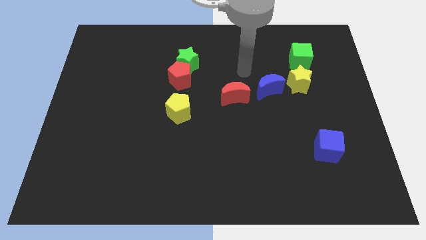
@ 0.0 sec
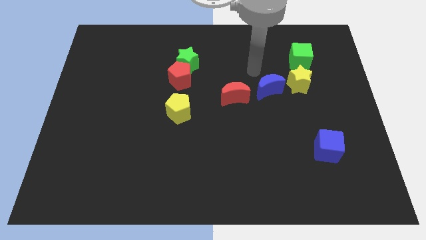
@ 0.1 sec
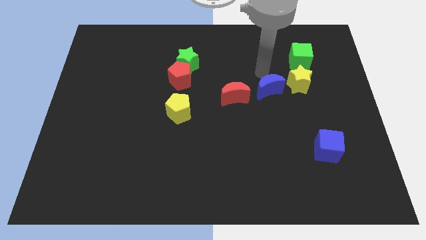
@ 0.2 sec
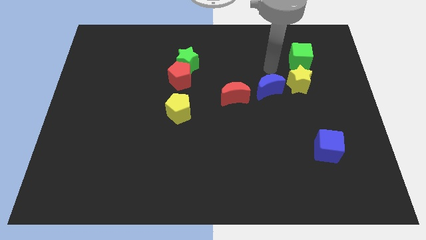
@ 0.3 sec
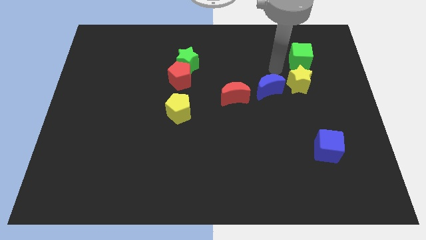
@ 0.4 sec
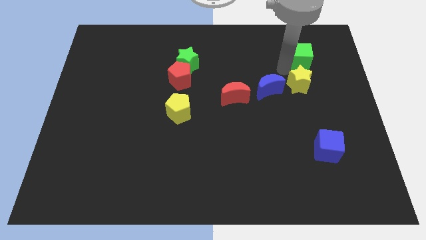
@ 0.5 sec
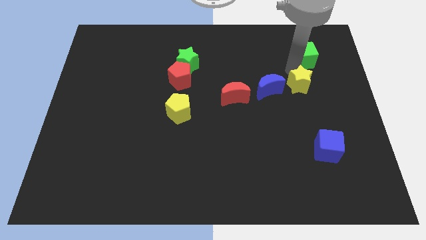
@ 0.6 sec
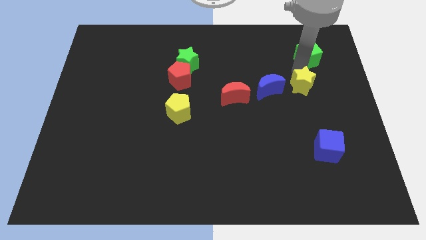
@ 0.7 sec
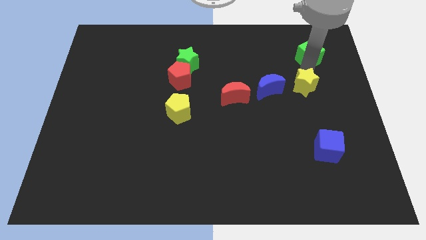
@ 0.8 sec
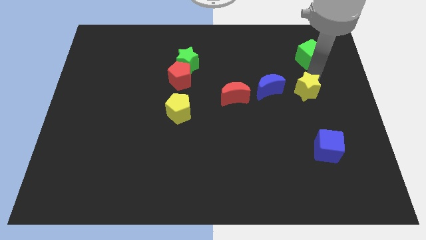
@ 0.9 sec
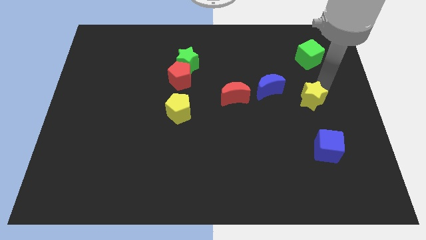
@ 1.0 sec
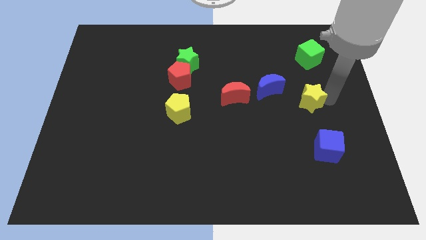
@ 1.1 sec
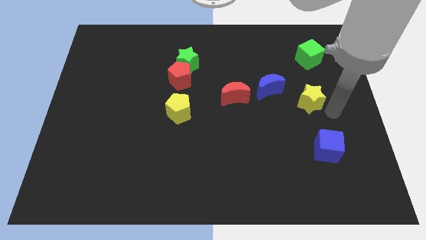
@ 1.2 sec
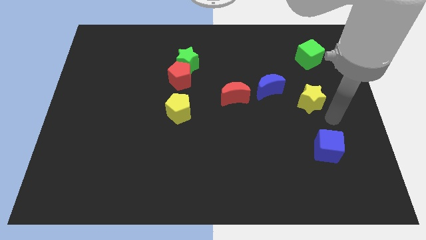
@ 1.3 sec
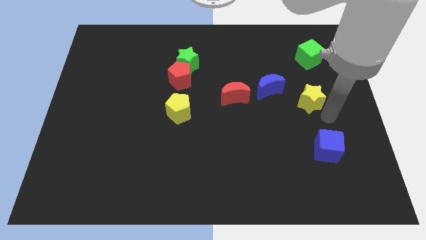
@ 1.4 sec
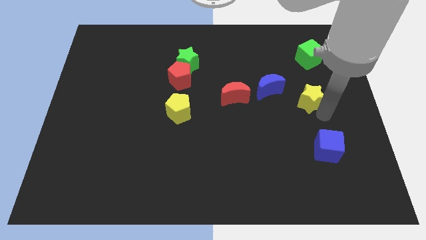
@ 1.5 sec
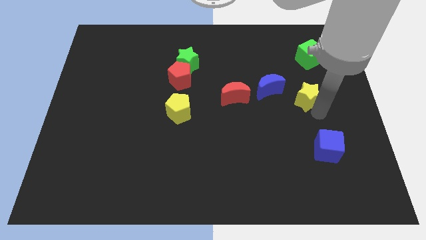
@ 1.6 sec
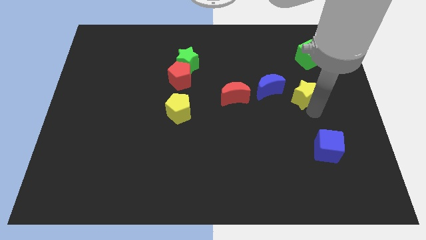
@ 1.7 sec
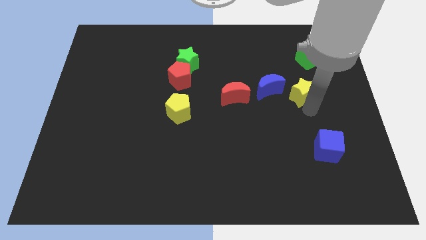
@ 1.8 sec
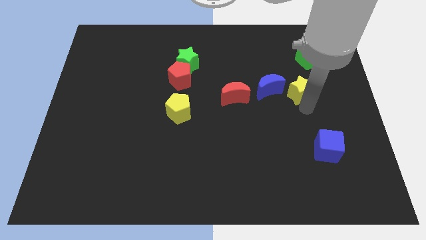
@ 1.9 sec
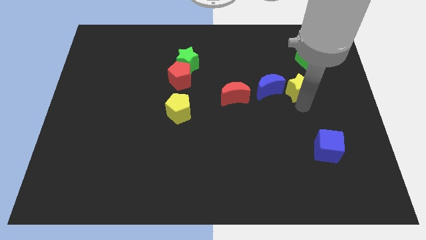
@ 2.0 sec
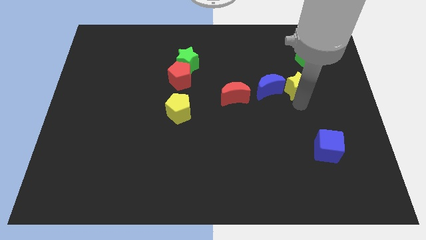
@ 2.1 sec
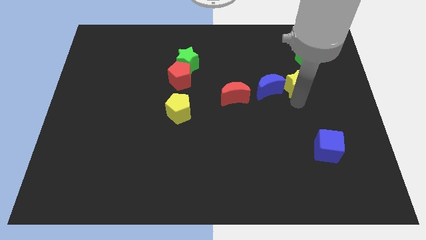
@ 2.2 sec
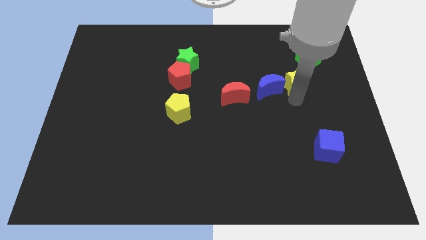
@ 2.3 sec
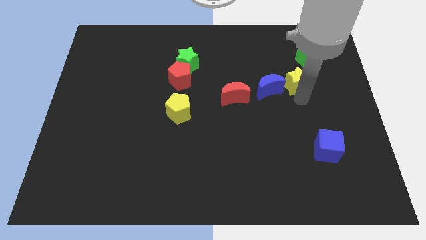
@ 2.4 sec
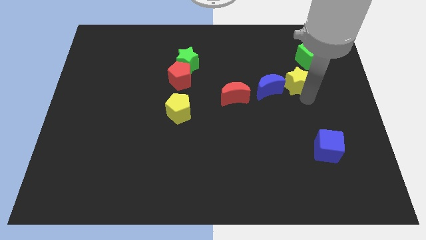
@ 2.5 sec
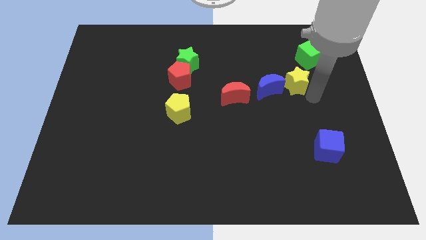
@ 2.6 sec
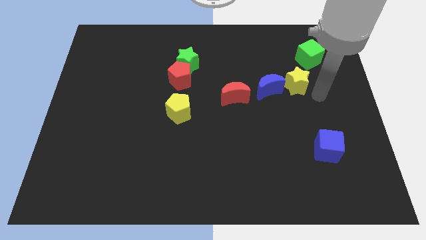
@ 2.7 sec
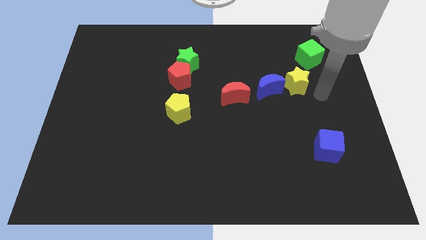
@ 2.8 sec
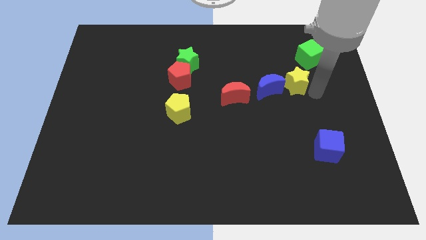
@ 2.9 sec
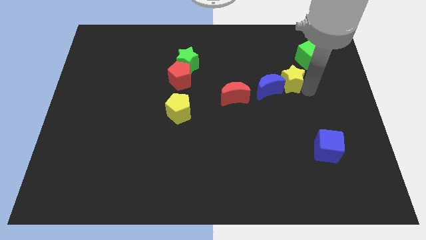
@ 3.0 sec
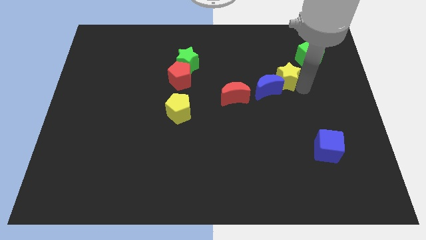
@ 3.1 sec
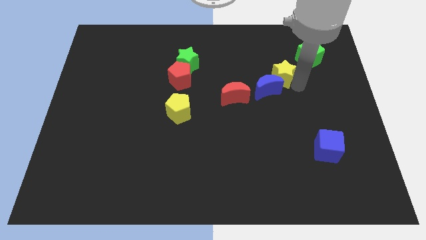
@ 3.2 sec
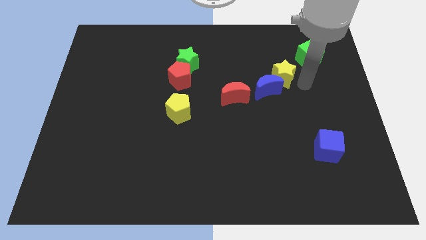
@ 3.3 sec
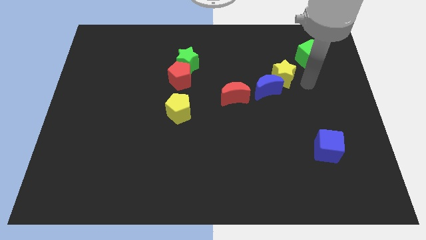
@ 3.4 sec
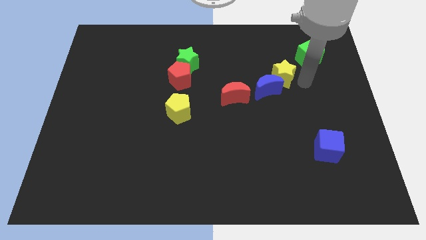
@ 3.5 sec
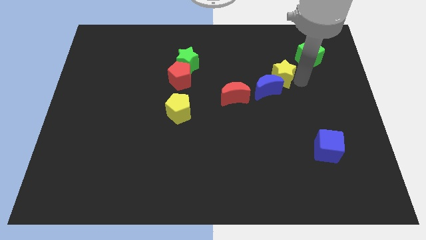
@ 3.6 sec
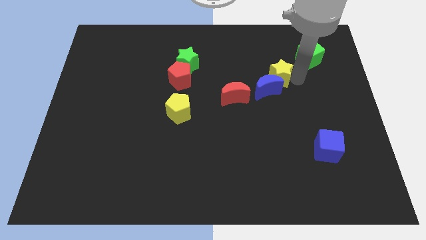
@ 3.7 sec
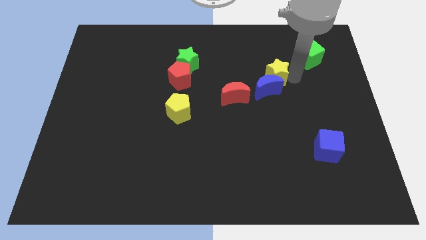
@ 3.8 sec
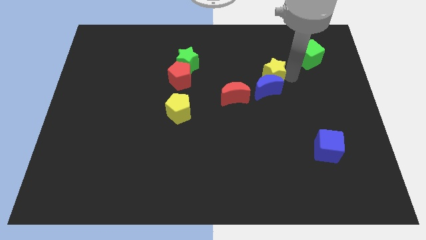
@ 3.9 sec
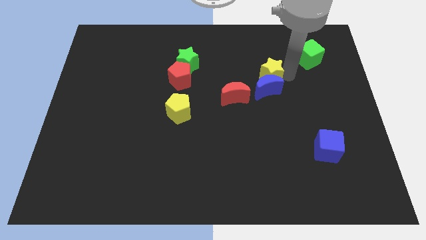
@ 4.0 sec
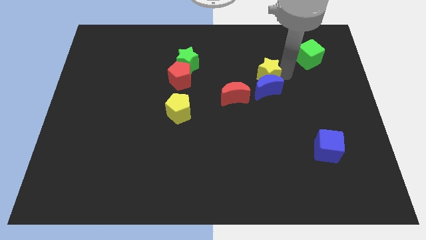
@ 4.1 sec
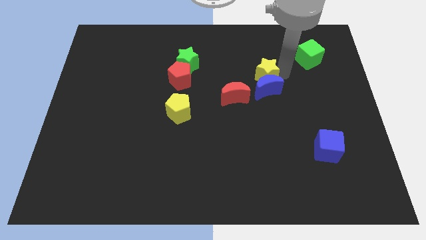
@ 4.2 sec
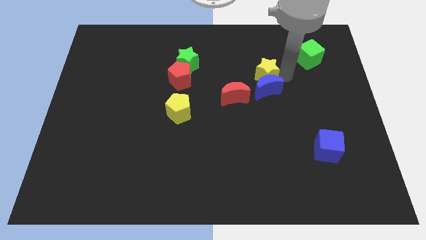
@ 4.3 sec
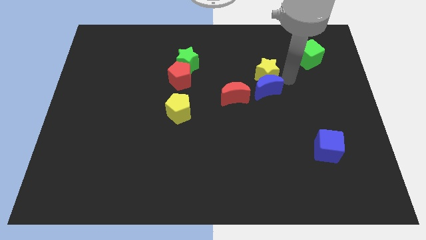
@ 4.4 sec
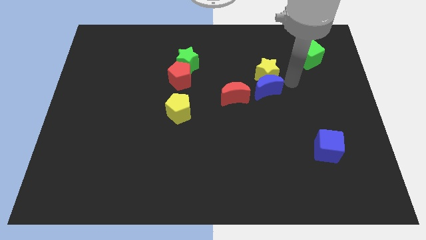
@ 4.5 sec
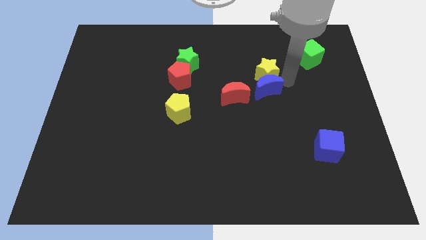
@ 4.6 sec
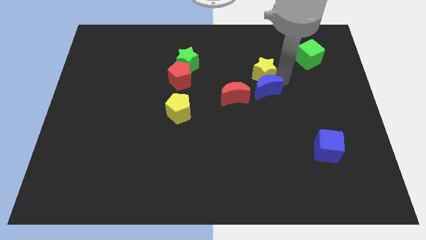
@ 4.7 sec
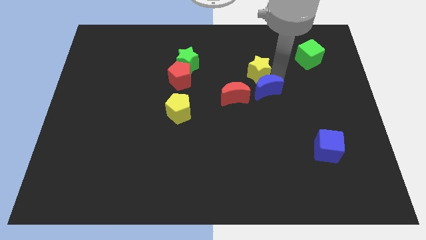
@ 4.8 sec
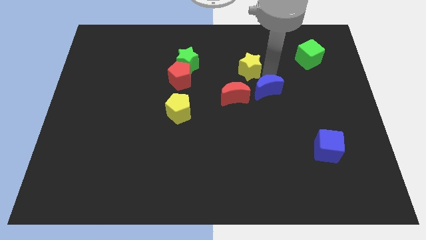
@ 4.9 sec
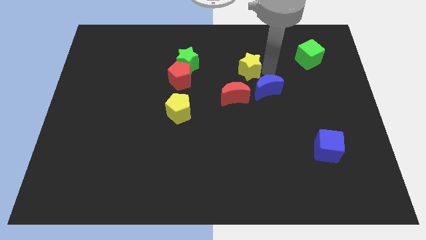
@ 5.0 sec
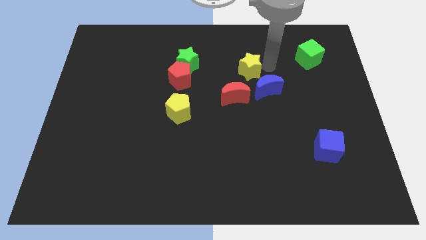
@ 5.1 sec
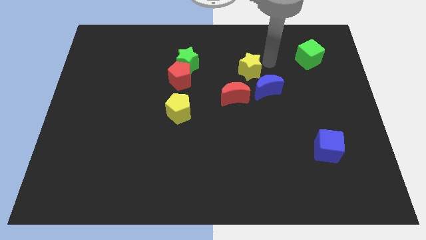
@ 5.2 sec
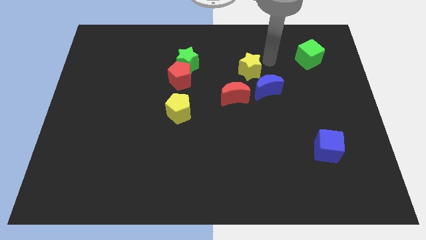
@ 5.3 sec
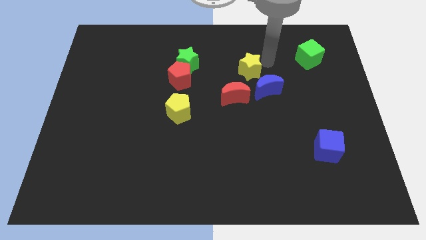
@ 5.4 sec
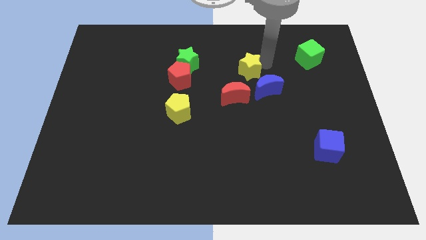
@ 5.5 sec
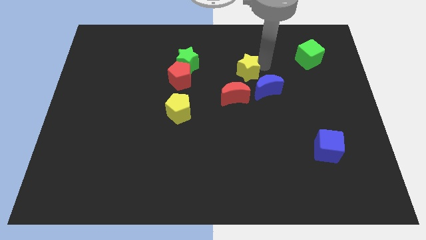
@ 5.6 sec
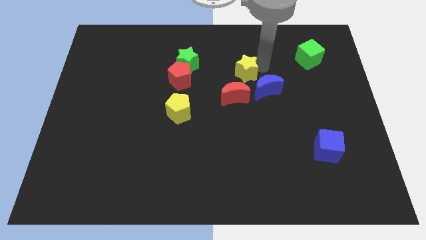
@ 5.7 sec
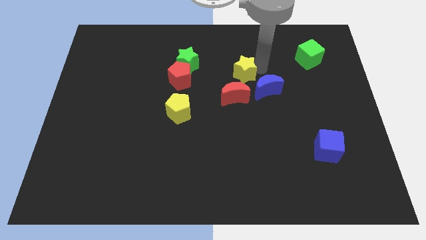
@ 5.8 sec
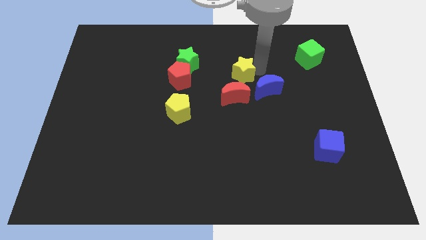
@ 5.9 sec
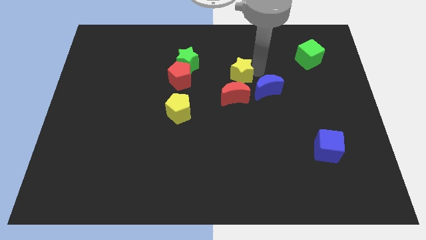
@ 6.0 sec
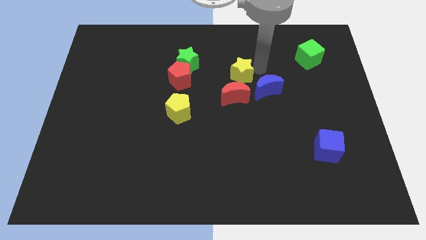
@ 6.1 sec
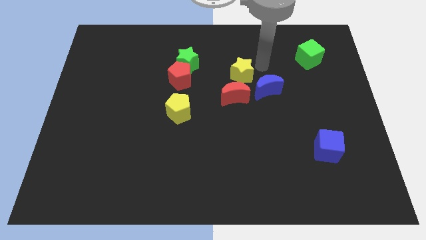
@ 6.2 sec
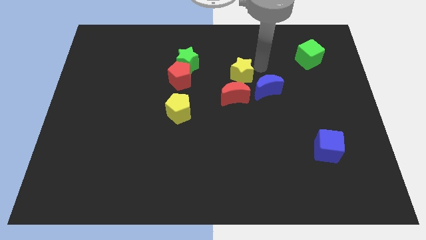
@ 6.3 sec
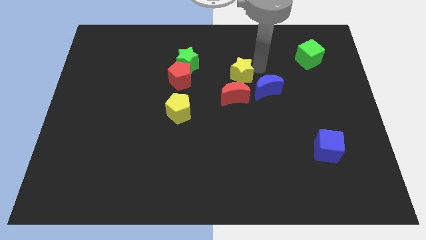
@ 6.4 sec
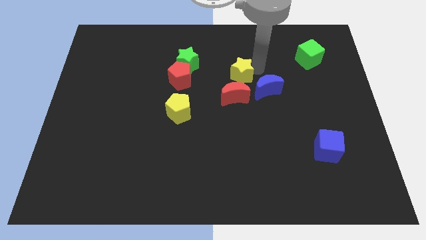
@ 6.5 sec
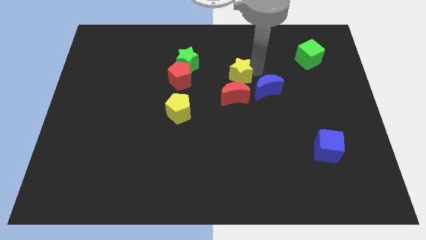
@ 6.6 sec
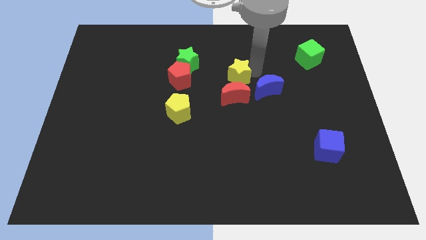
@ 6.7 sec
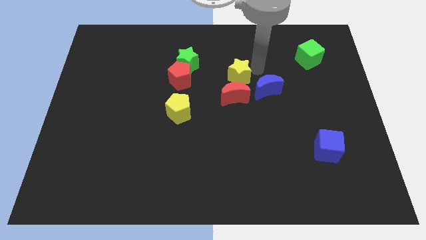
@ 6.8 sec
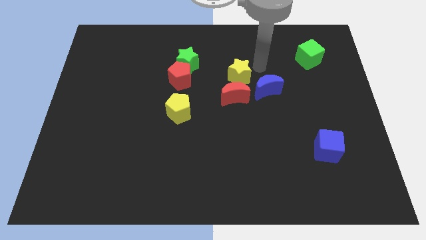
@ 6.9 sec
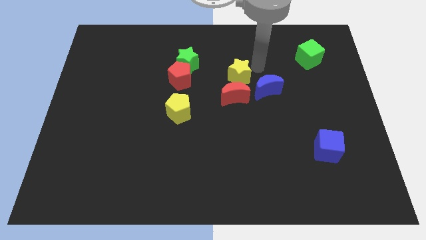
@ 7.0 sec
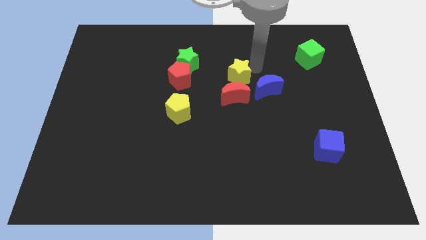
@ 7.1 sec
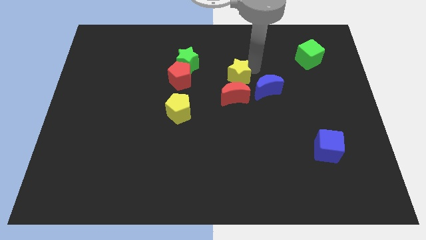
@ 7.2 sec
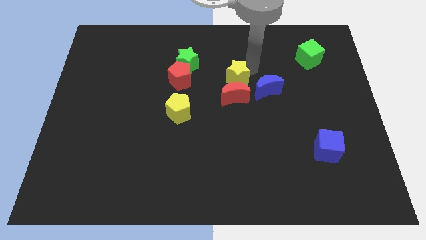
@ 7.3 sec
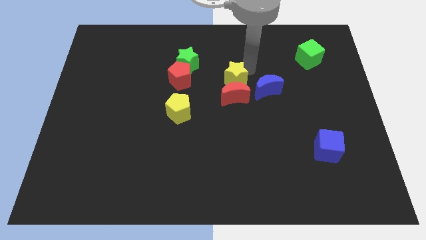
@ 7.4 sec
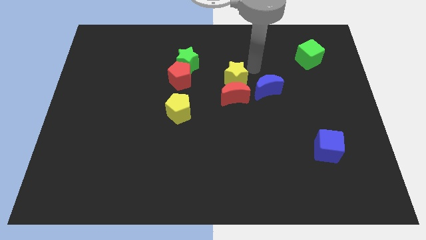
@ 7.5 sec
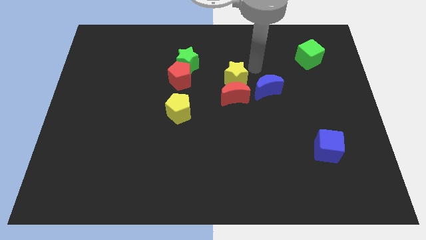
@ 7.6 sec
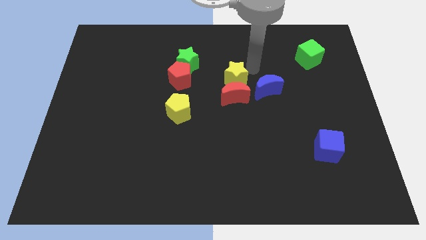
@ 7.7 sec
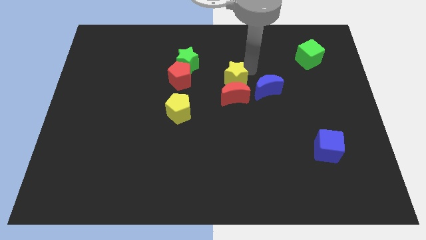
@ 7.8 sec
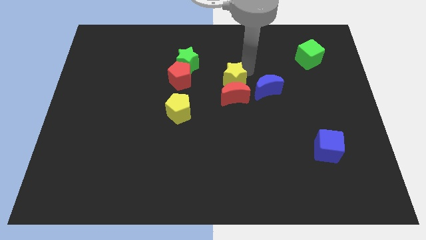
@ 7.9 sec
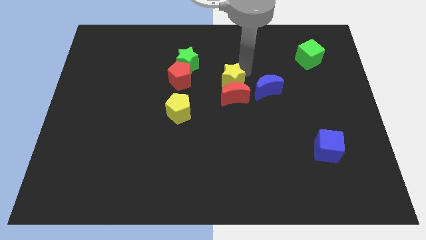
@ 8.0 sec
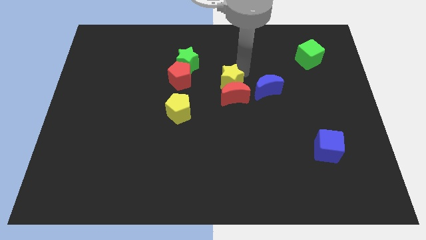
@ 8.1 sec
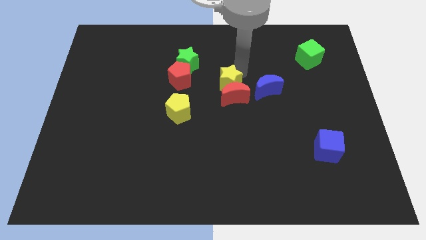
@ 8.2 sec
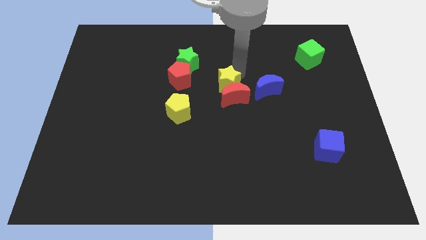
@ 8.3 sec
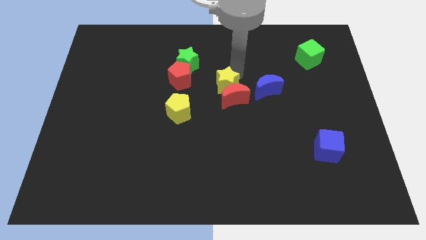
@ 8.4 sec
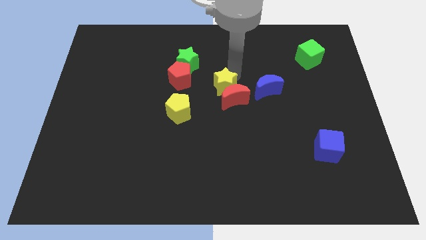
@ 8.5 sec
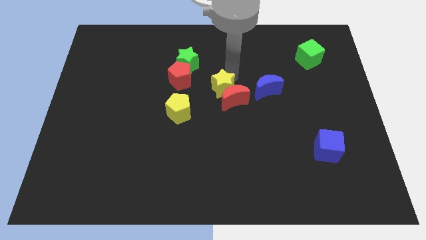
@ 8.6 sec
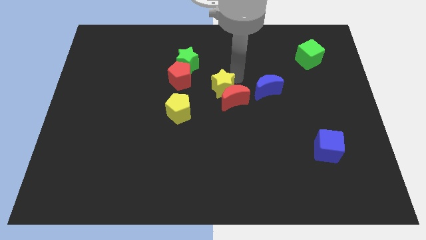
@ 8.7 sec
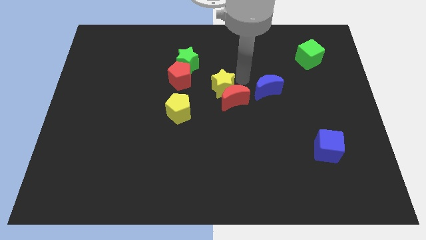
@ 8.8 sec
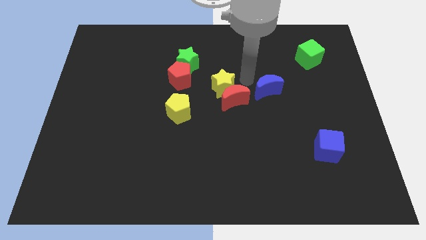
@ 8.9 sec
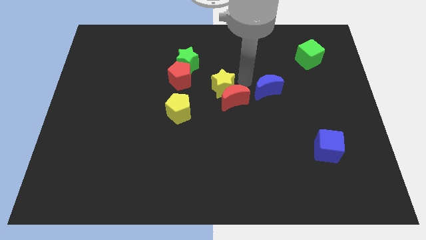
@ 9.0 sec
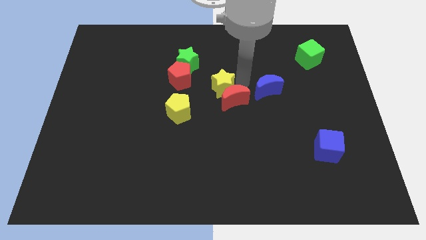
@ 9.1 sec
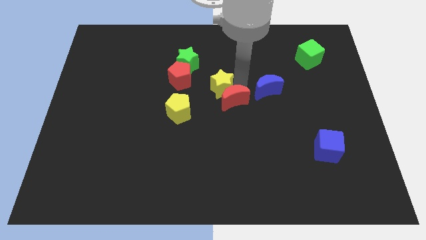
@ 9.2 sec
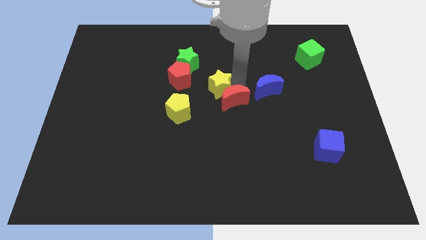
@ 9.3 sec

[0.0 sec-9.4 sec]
move the yellow star diagonally down and to the right of the red pentagon
